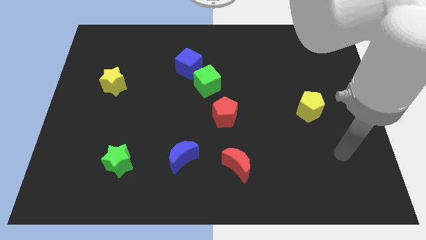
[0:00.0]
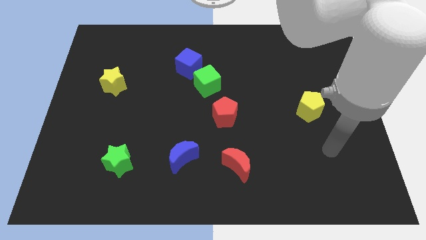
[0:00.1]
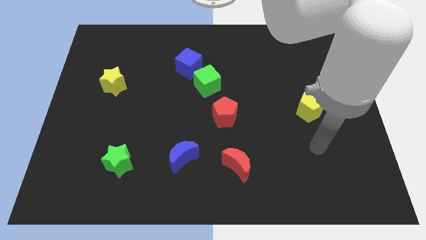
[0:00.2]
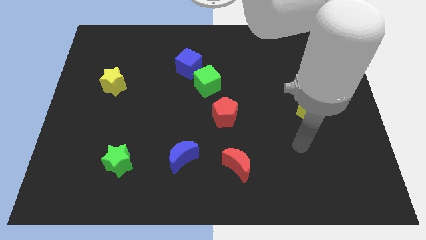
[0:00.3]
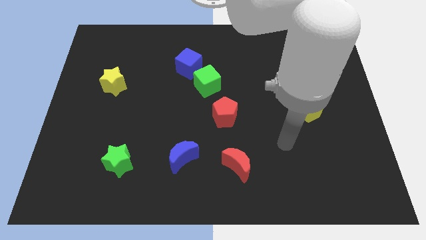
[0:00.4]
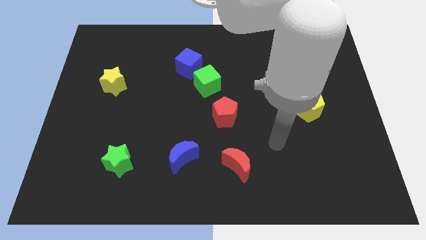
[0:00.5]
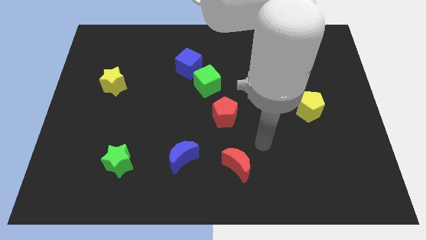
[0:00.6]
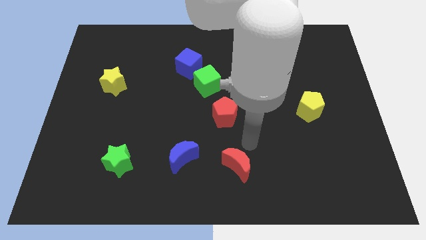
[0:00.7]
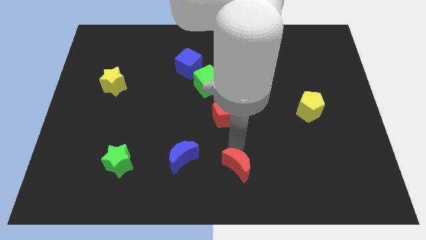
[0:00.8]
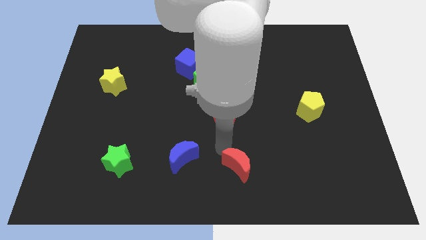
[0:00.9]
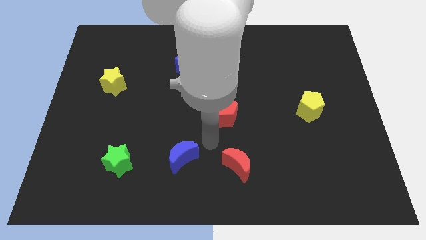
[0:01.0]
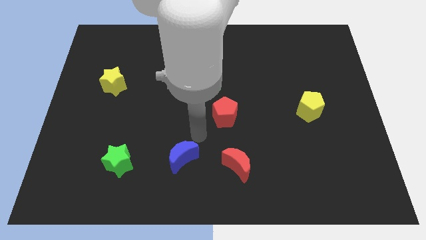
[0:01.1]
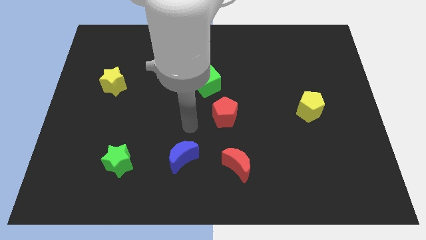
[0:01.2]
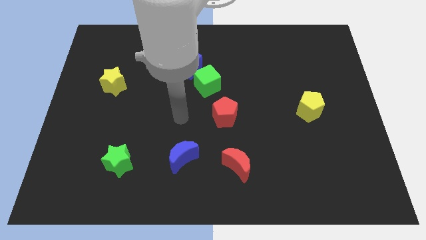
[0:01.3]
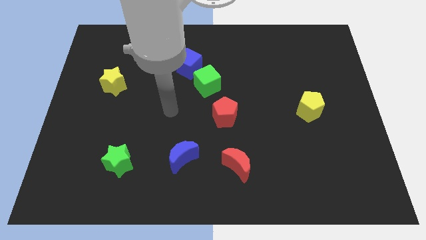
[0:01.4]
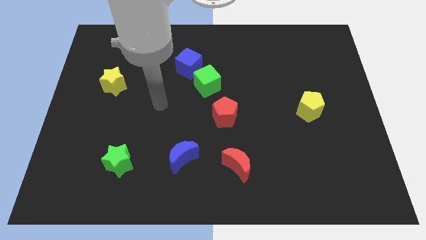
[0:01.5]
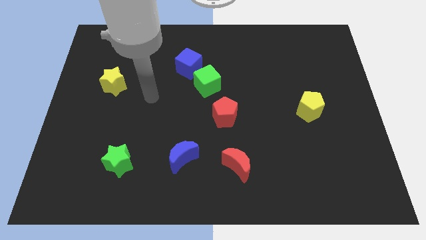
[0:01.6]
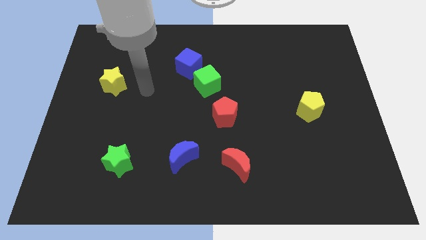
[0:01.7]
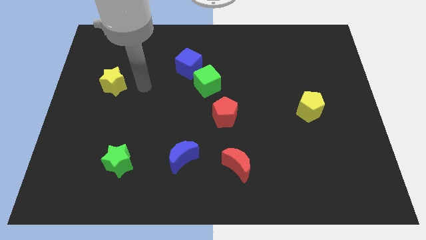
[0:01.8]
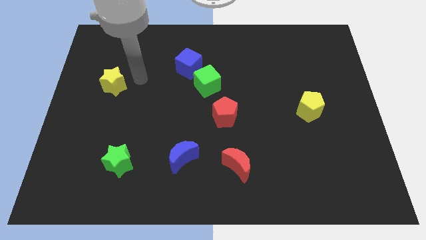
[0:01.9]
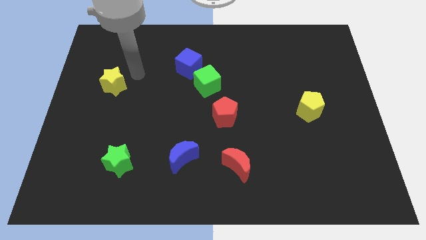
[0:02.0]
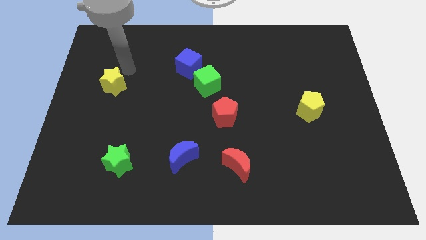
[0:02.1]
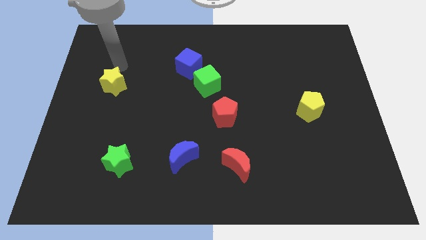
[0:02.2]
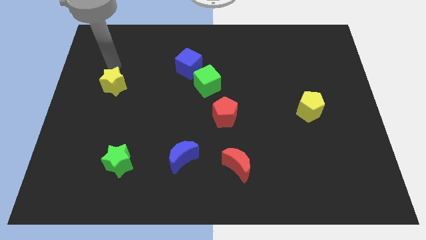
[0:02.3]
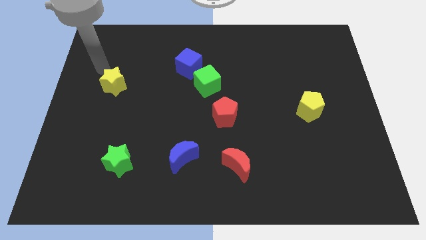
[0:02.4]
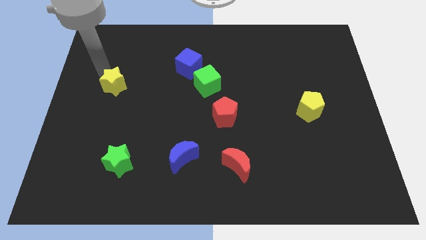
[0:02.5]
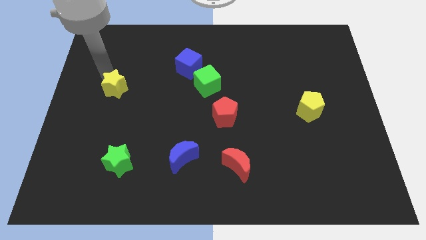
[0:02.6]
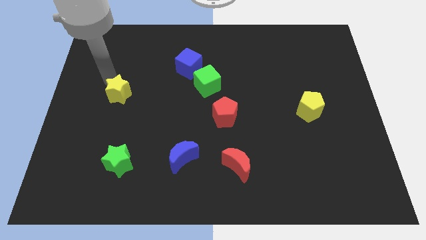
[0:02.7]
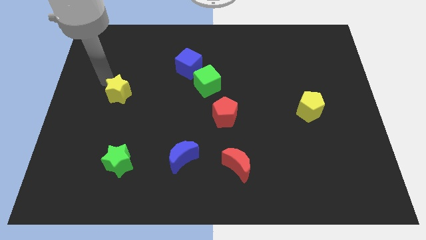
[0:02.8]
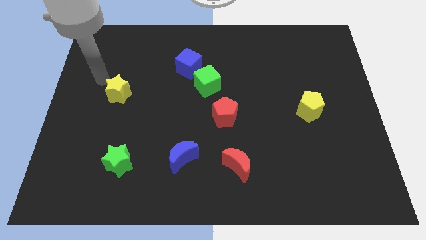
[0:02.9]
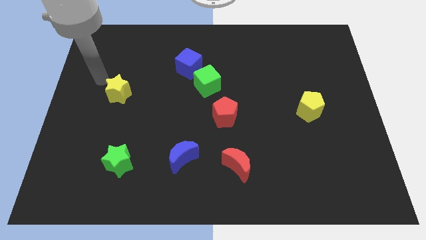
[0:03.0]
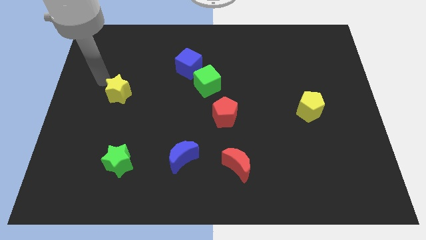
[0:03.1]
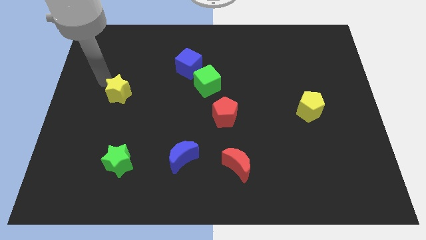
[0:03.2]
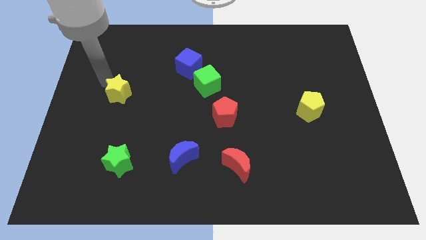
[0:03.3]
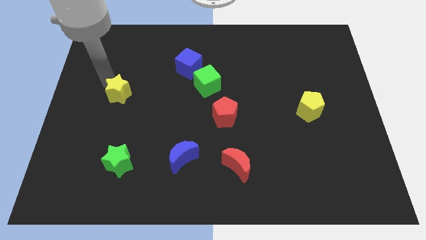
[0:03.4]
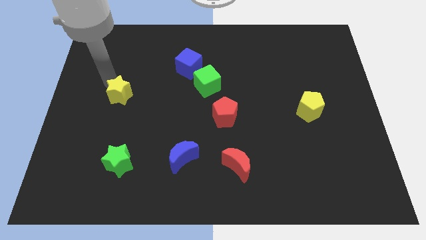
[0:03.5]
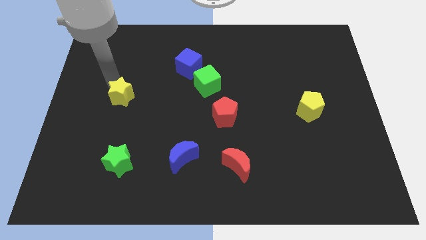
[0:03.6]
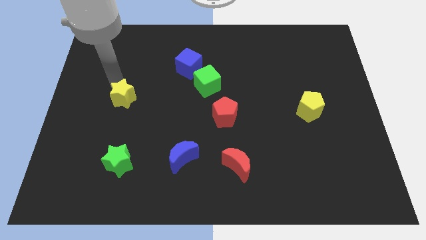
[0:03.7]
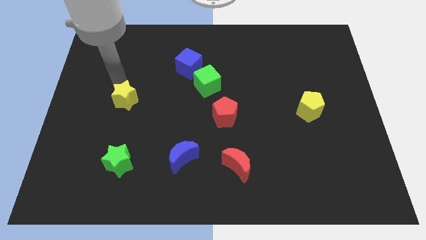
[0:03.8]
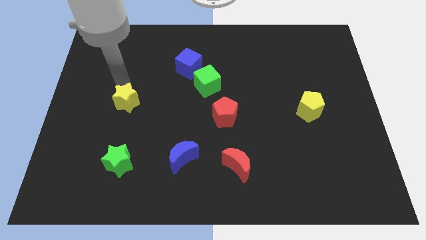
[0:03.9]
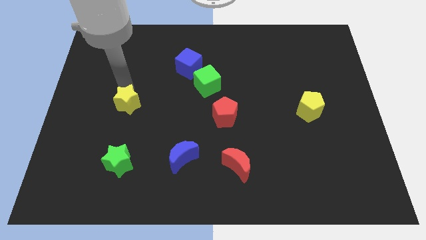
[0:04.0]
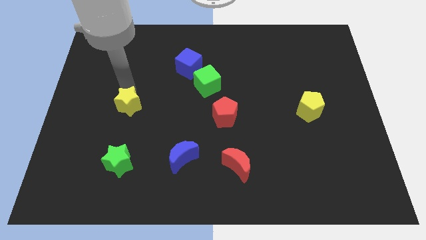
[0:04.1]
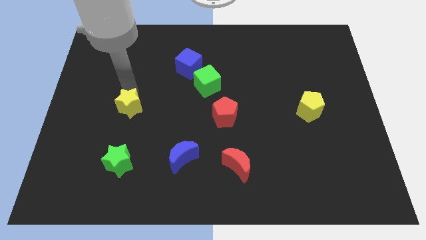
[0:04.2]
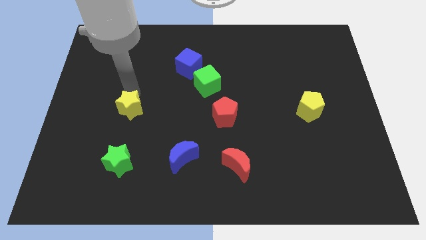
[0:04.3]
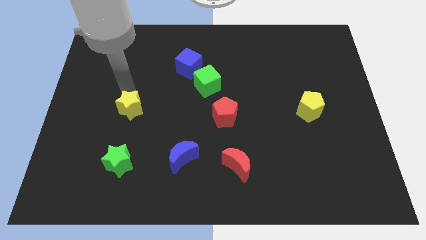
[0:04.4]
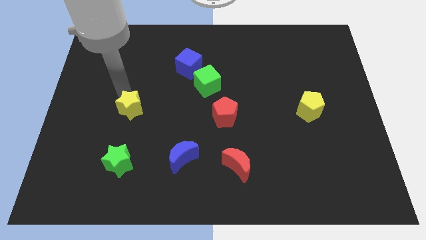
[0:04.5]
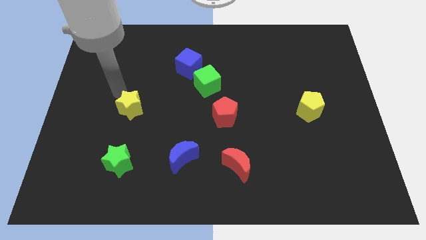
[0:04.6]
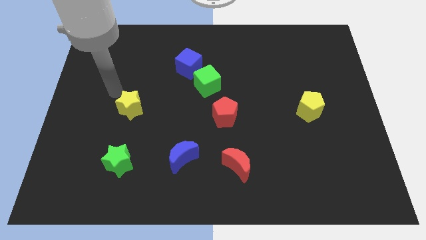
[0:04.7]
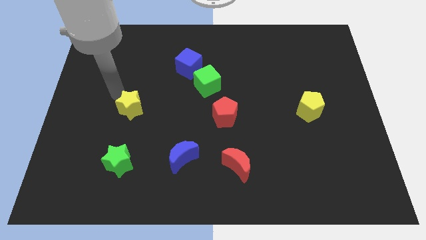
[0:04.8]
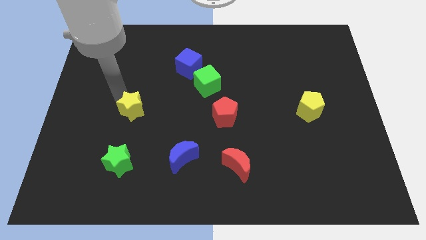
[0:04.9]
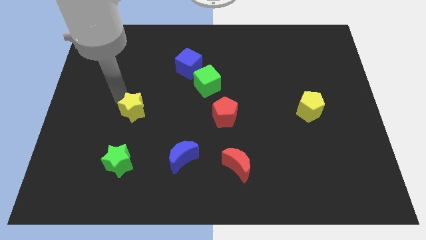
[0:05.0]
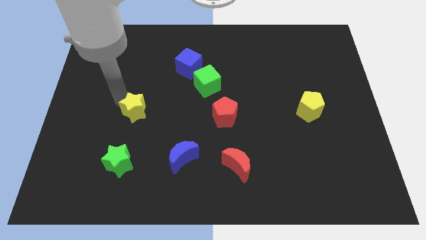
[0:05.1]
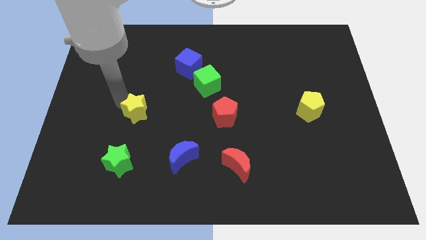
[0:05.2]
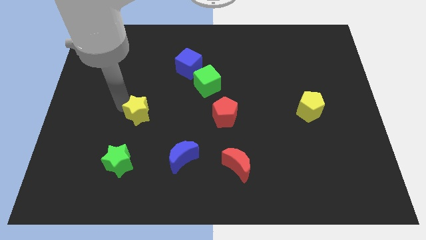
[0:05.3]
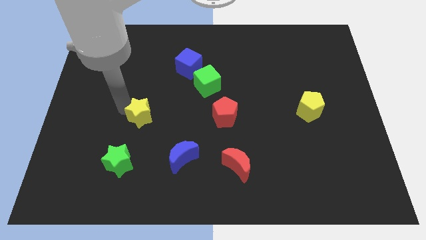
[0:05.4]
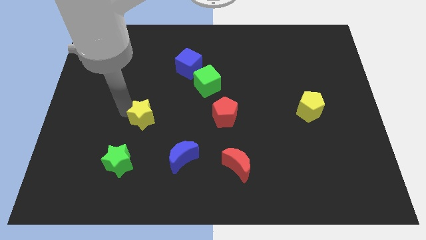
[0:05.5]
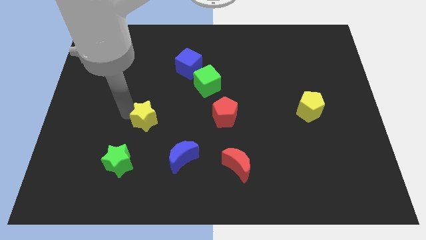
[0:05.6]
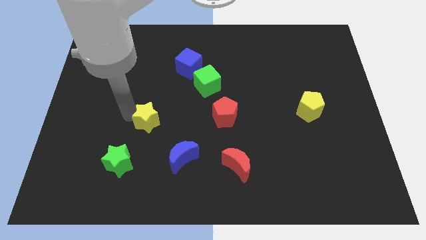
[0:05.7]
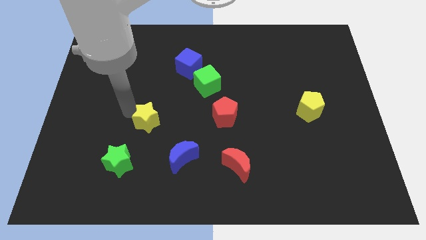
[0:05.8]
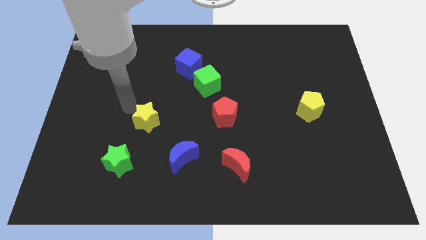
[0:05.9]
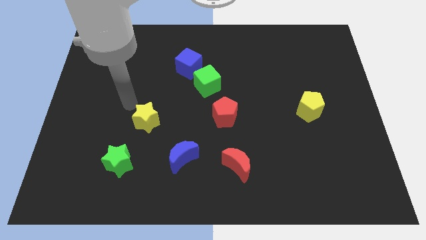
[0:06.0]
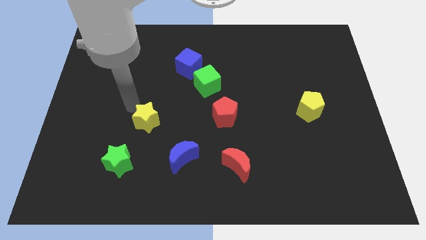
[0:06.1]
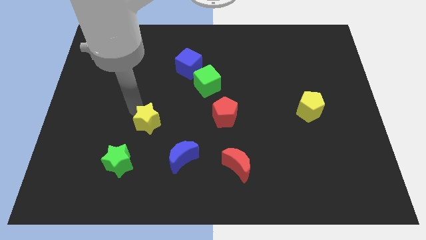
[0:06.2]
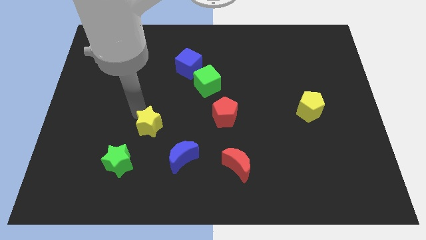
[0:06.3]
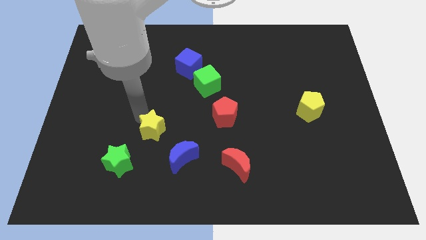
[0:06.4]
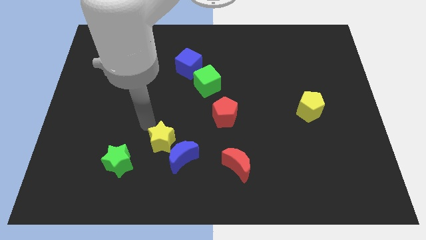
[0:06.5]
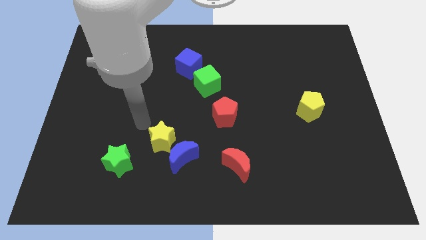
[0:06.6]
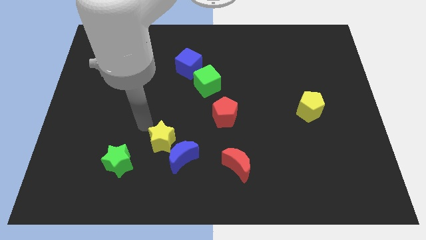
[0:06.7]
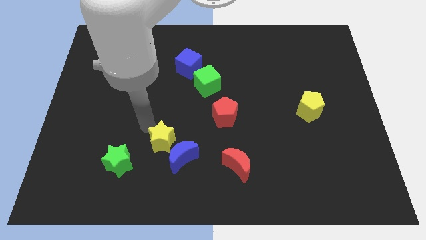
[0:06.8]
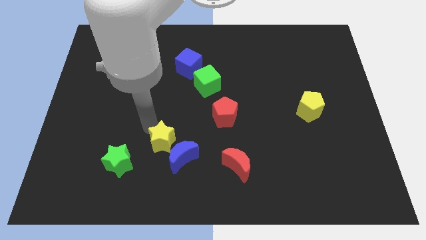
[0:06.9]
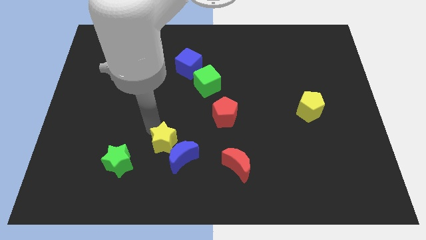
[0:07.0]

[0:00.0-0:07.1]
move the yellow star next to the blue moon
